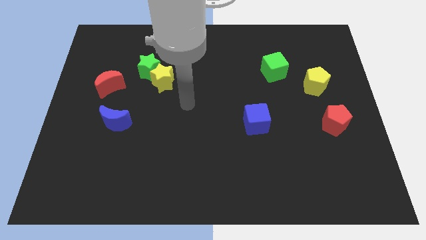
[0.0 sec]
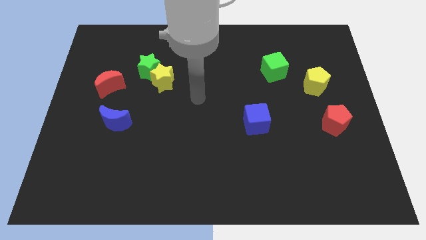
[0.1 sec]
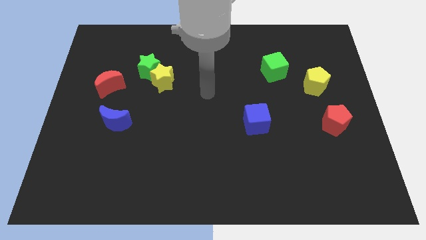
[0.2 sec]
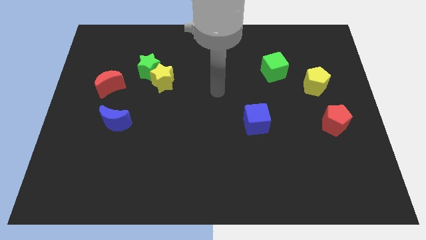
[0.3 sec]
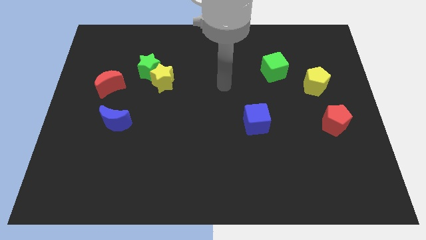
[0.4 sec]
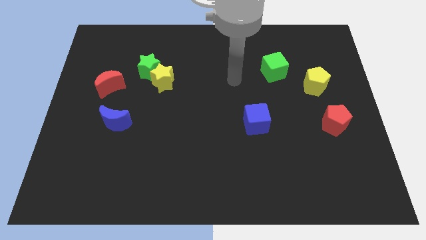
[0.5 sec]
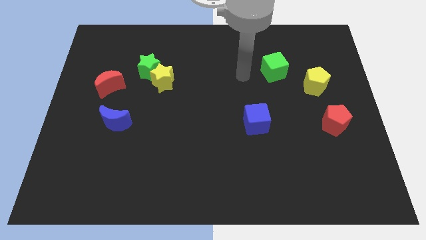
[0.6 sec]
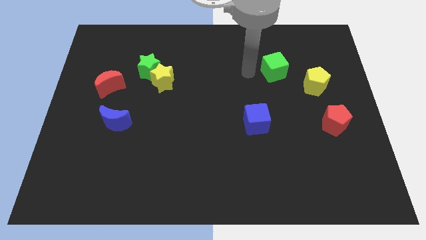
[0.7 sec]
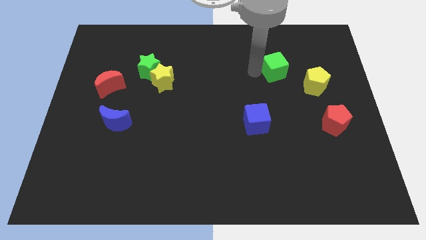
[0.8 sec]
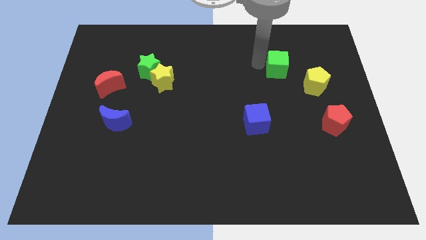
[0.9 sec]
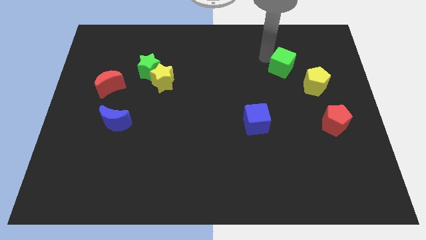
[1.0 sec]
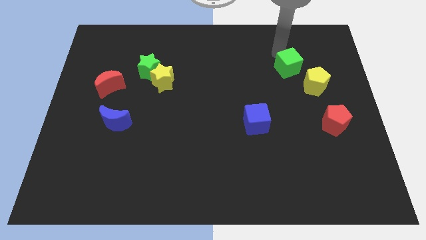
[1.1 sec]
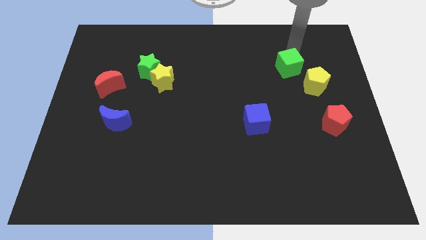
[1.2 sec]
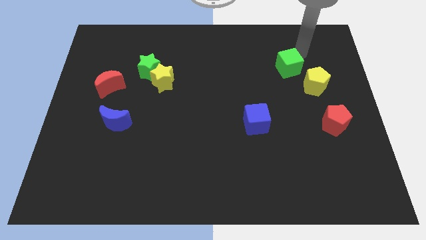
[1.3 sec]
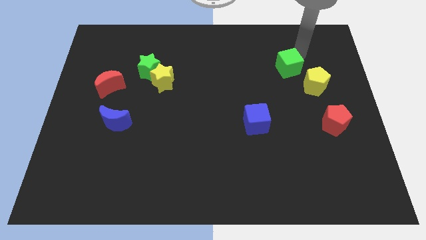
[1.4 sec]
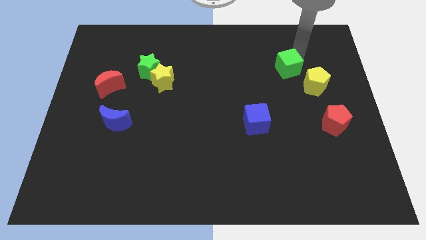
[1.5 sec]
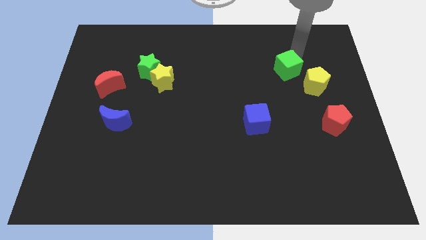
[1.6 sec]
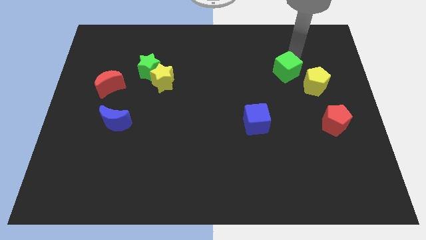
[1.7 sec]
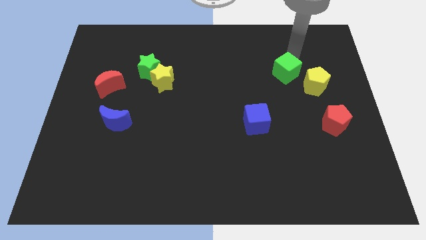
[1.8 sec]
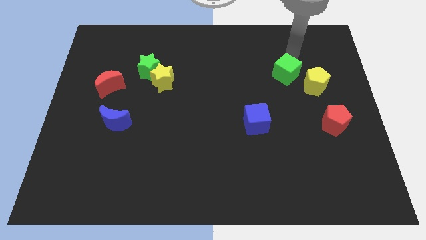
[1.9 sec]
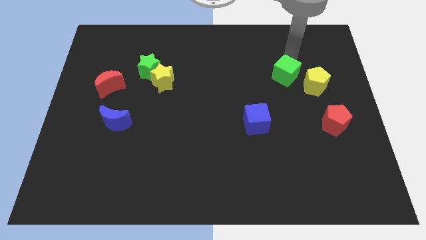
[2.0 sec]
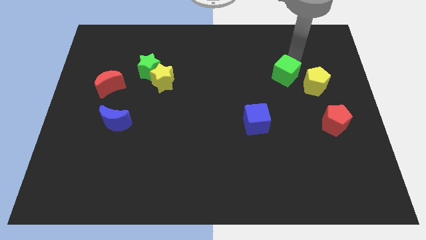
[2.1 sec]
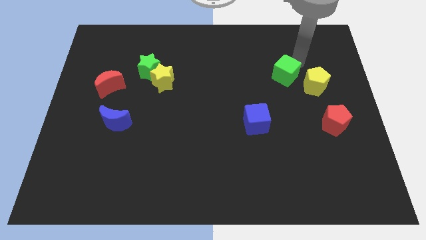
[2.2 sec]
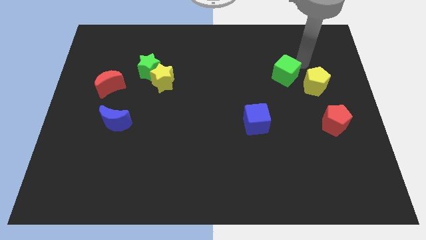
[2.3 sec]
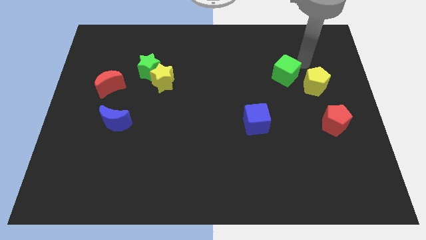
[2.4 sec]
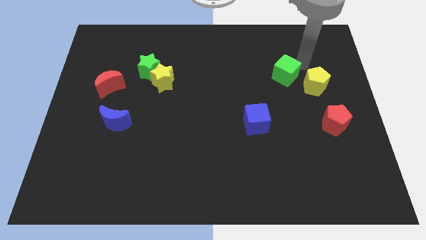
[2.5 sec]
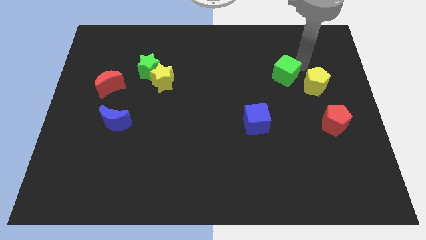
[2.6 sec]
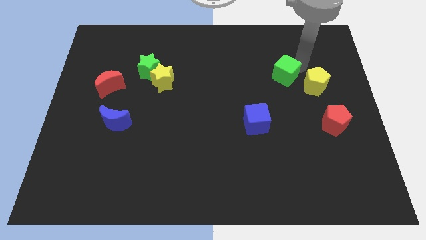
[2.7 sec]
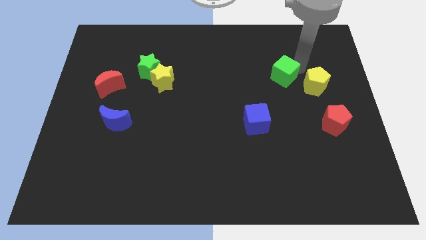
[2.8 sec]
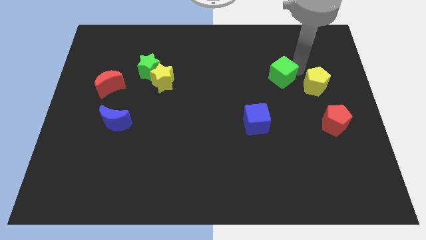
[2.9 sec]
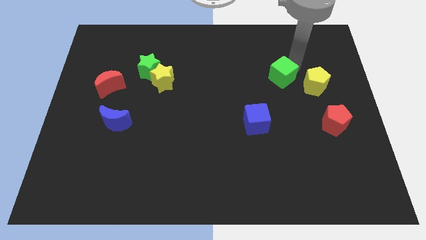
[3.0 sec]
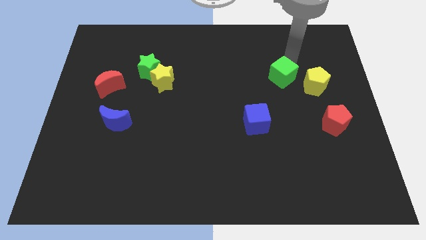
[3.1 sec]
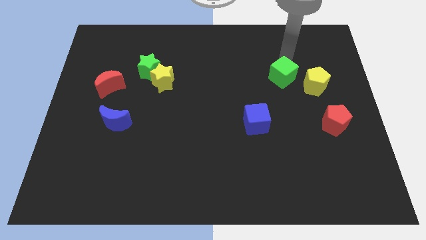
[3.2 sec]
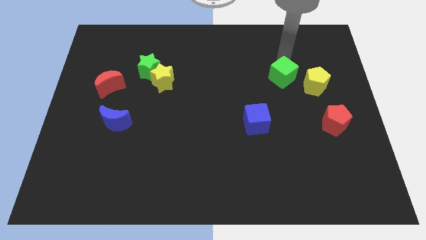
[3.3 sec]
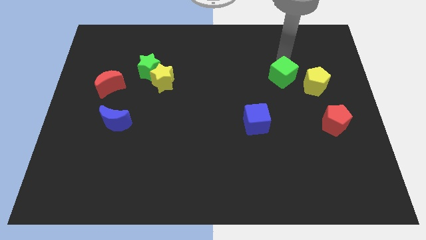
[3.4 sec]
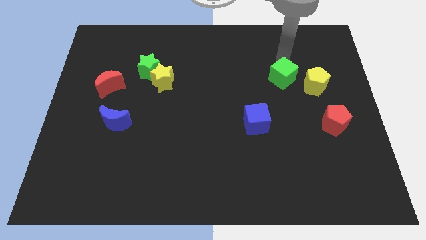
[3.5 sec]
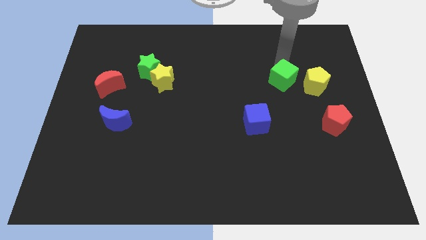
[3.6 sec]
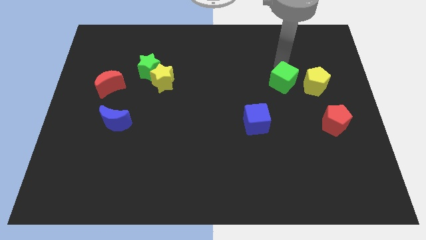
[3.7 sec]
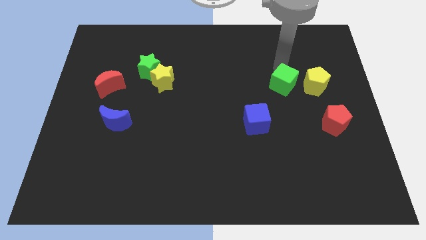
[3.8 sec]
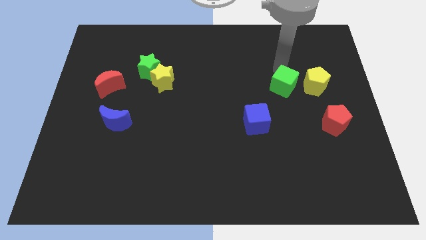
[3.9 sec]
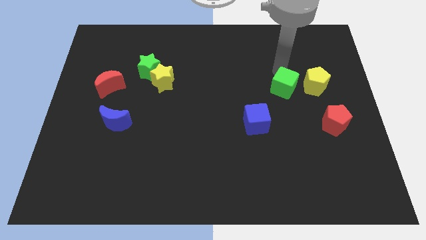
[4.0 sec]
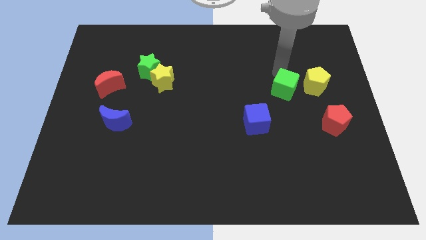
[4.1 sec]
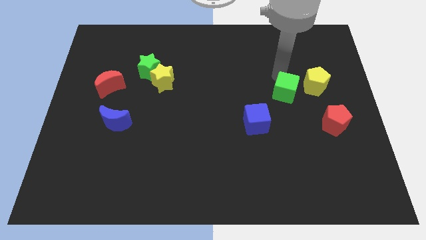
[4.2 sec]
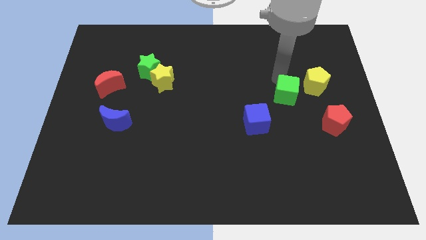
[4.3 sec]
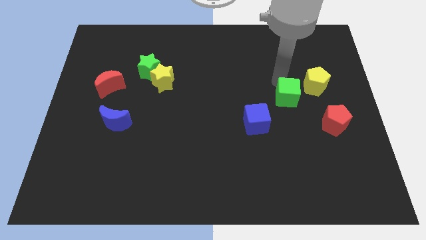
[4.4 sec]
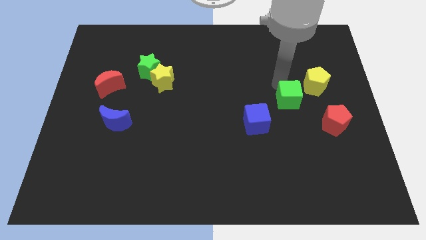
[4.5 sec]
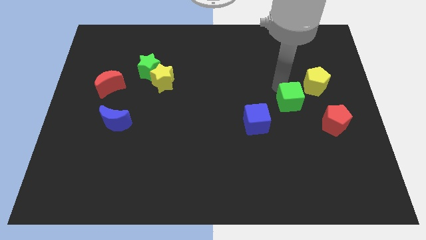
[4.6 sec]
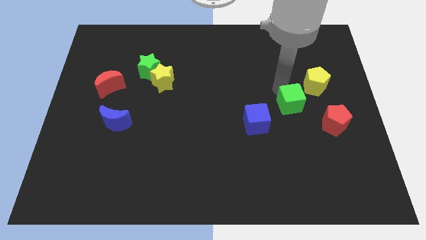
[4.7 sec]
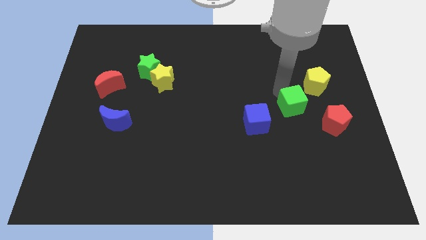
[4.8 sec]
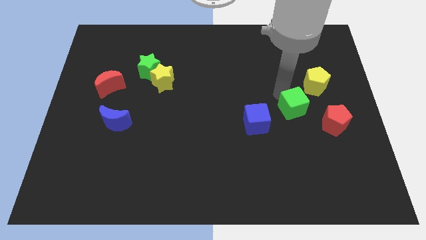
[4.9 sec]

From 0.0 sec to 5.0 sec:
move the green cube right of the blue cube

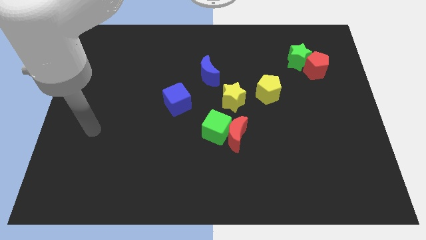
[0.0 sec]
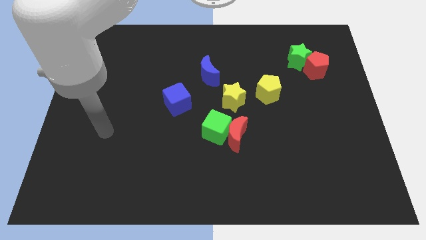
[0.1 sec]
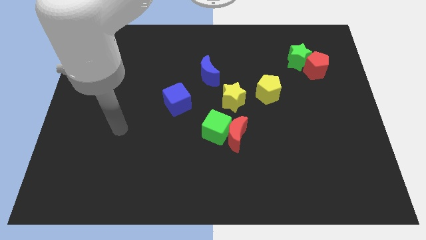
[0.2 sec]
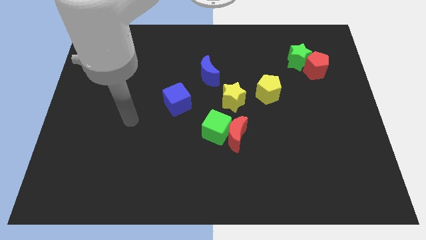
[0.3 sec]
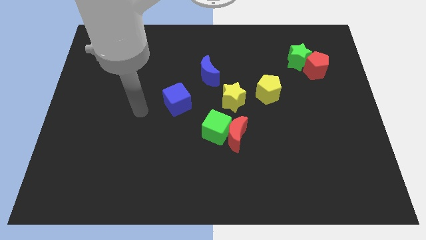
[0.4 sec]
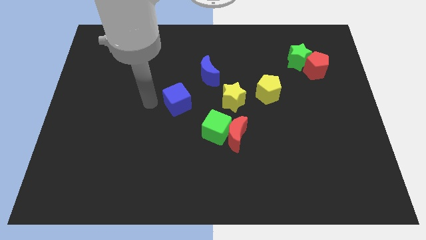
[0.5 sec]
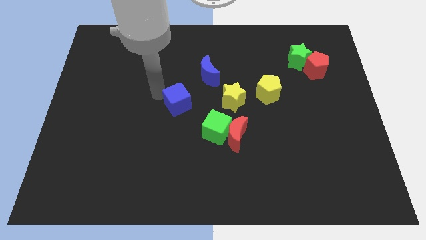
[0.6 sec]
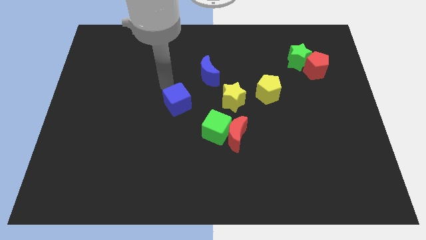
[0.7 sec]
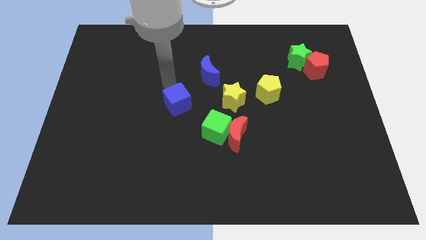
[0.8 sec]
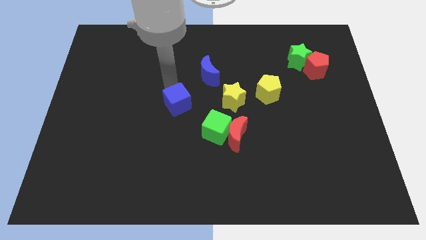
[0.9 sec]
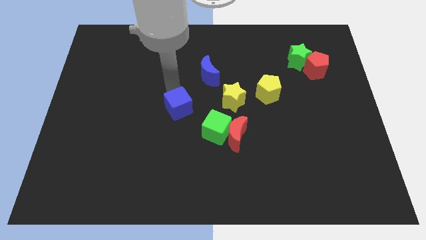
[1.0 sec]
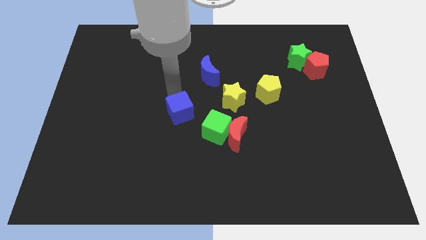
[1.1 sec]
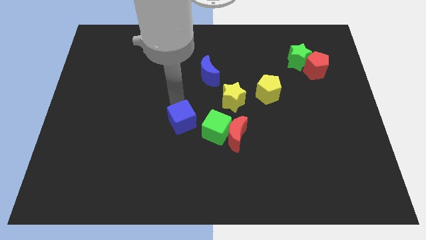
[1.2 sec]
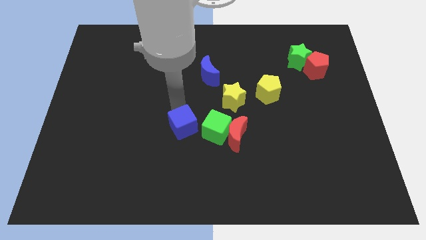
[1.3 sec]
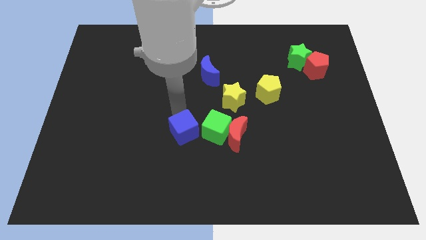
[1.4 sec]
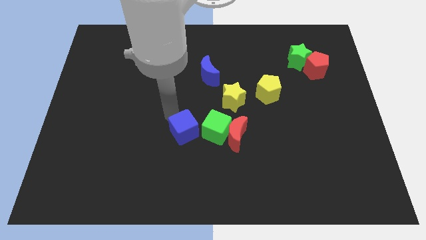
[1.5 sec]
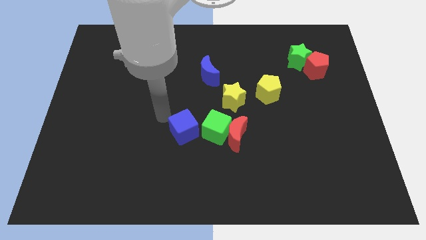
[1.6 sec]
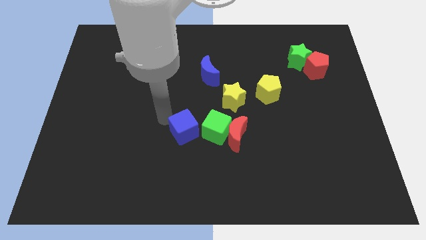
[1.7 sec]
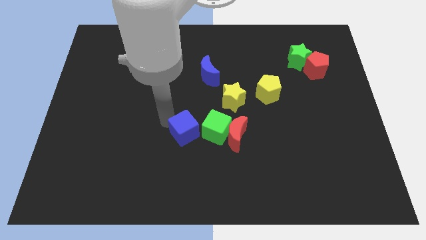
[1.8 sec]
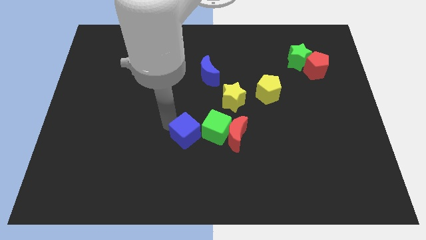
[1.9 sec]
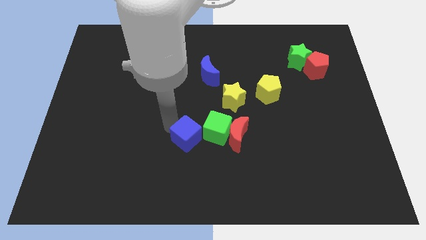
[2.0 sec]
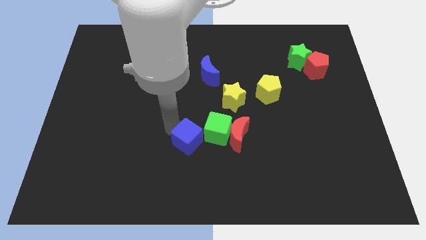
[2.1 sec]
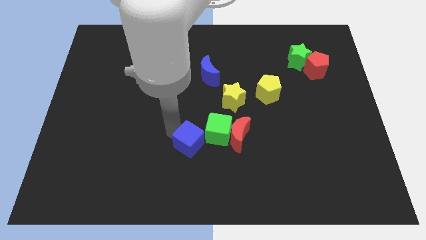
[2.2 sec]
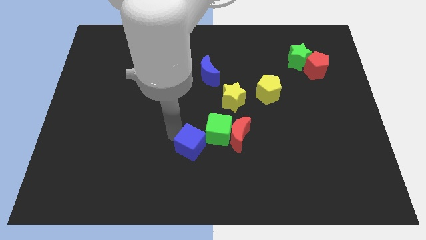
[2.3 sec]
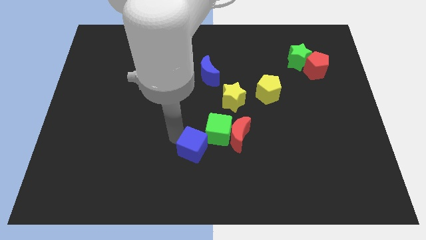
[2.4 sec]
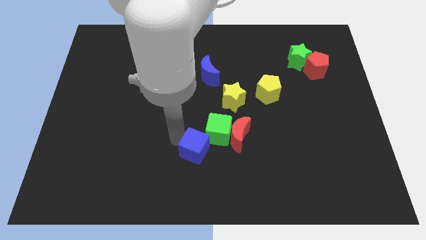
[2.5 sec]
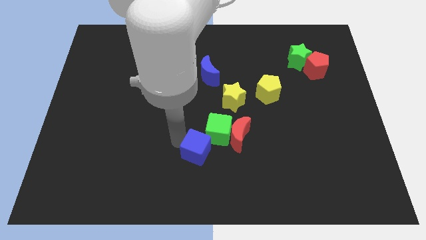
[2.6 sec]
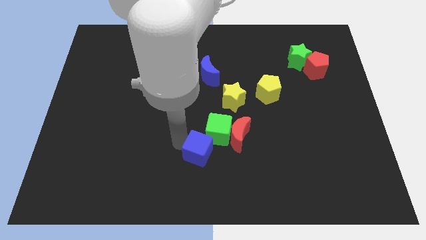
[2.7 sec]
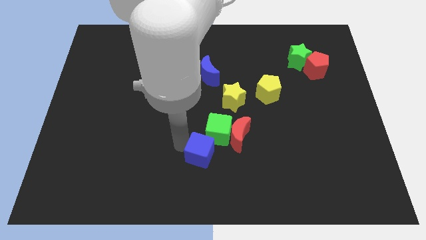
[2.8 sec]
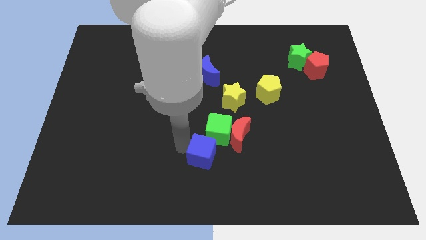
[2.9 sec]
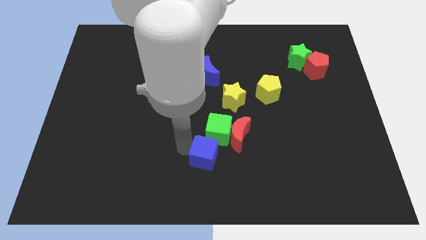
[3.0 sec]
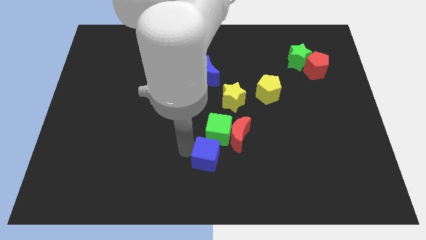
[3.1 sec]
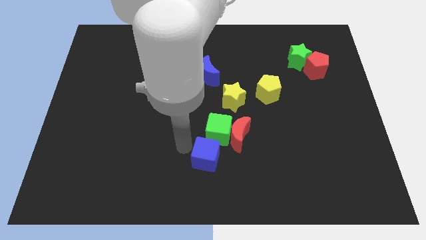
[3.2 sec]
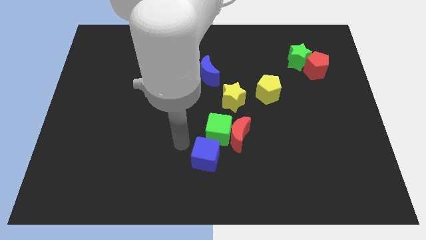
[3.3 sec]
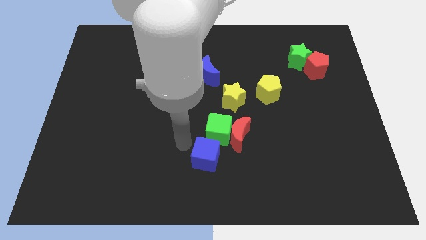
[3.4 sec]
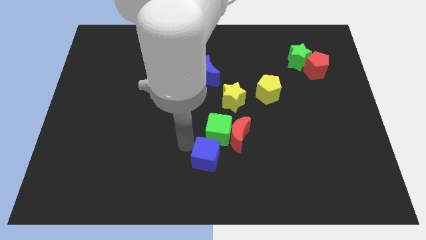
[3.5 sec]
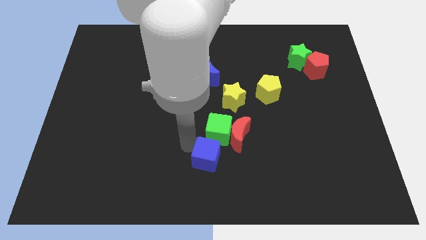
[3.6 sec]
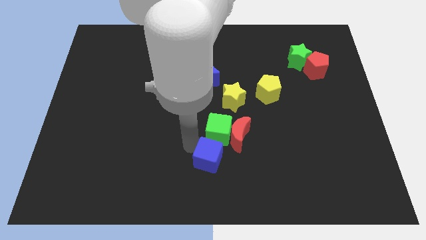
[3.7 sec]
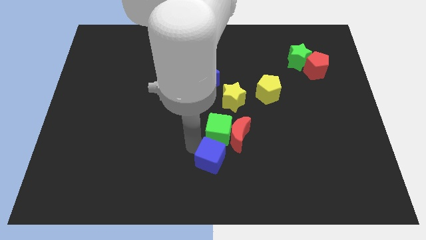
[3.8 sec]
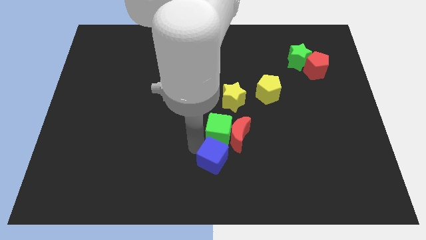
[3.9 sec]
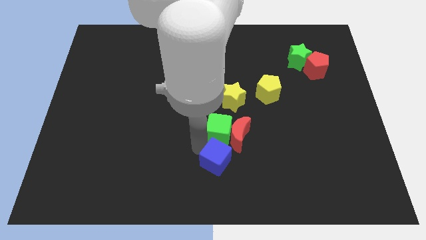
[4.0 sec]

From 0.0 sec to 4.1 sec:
push the blue cube to the bottom of the red moon
